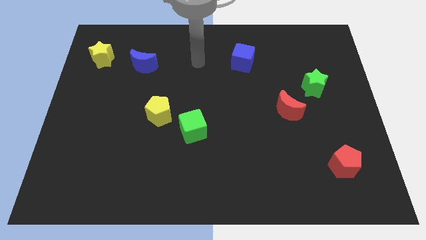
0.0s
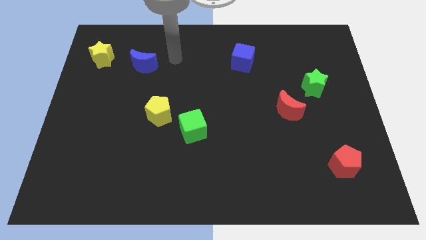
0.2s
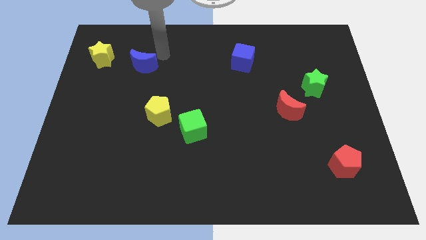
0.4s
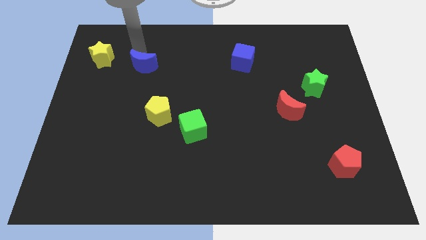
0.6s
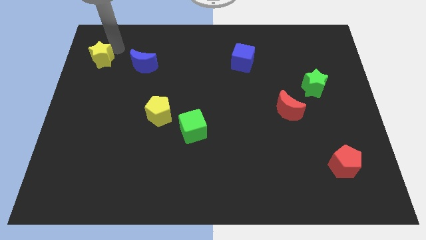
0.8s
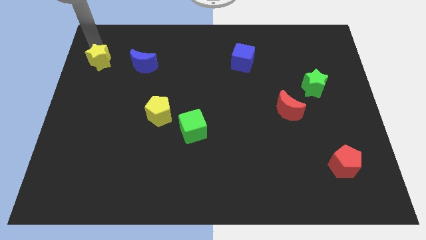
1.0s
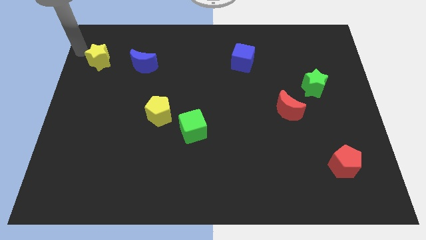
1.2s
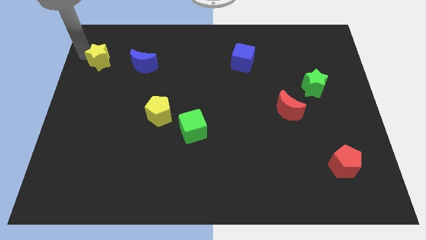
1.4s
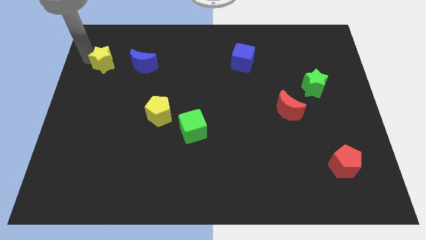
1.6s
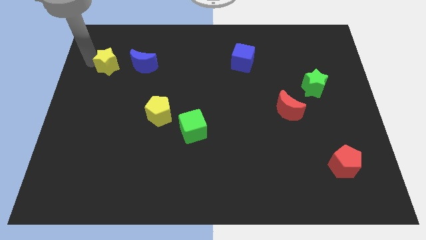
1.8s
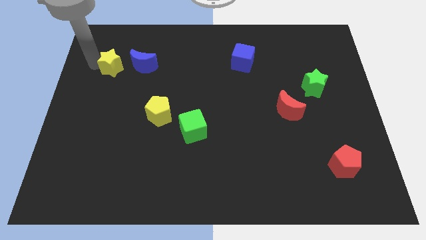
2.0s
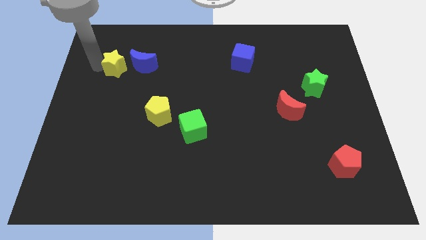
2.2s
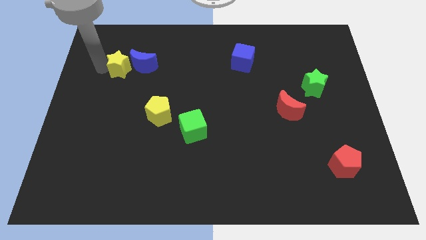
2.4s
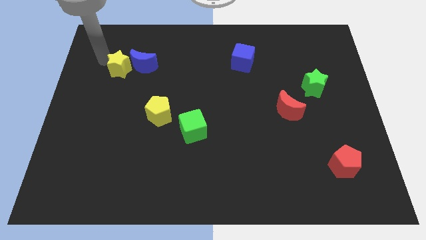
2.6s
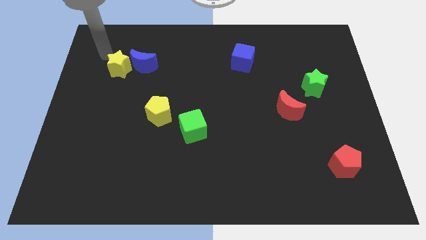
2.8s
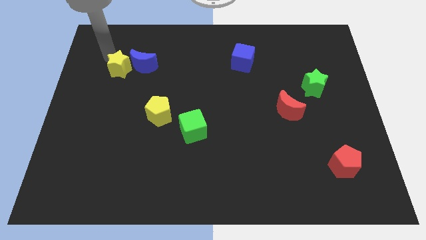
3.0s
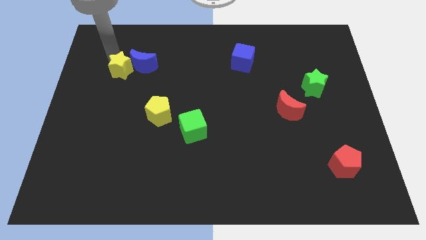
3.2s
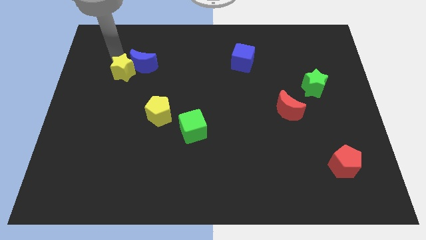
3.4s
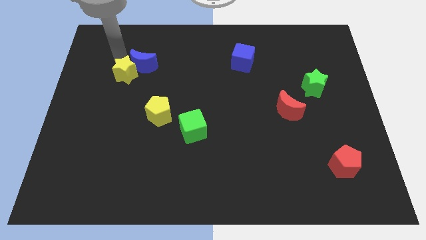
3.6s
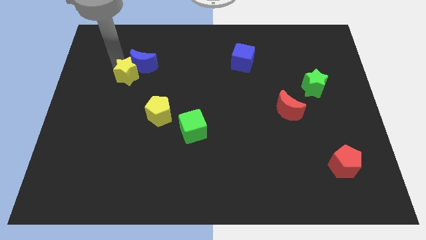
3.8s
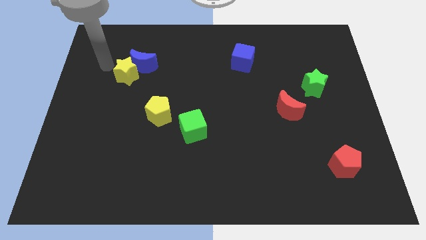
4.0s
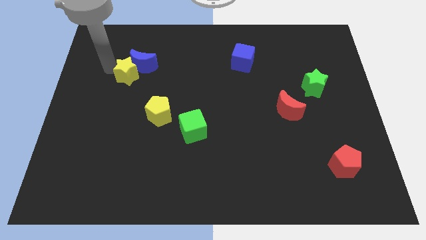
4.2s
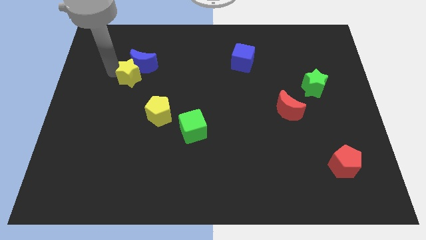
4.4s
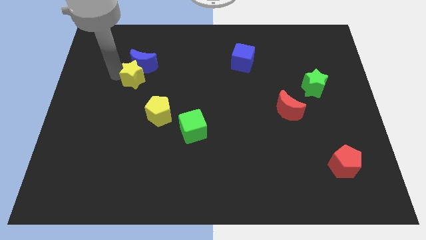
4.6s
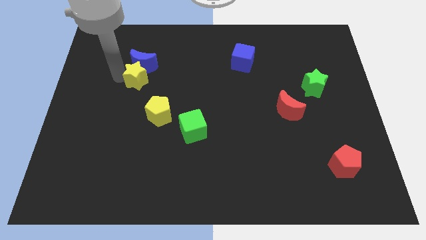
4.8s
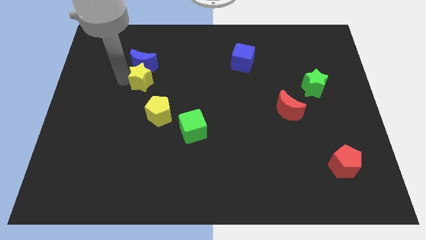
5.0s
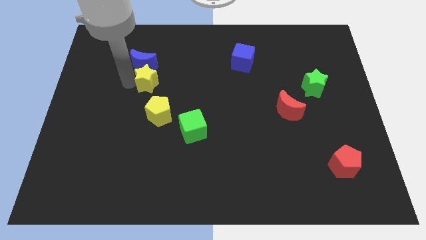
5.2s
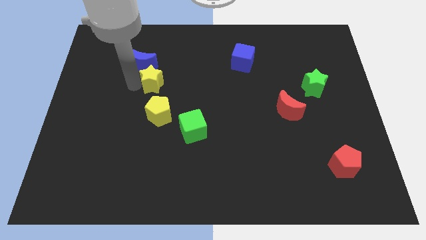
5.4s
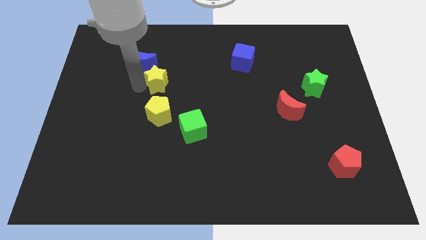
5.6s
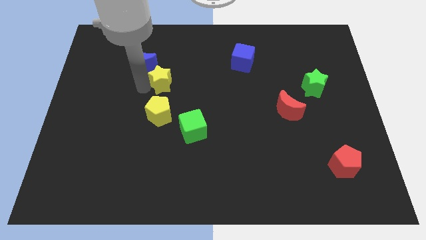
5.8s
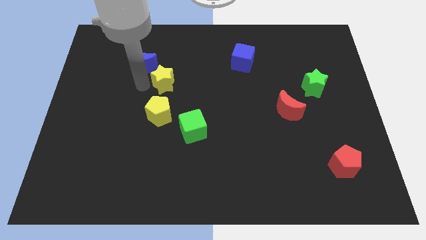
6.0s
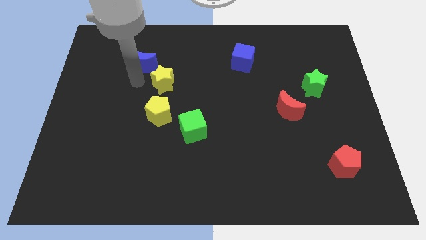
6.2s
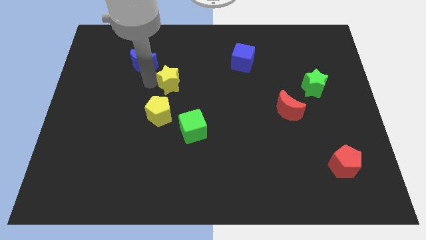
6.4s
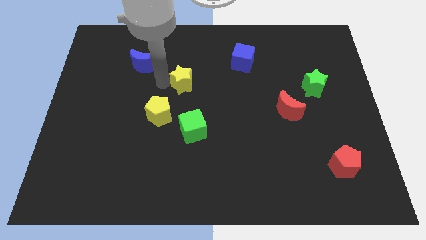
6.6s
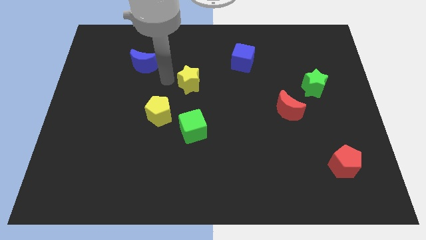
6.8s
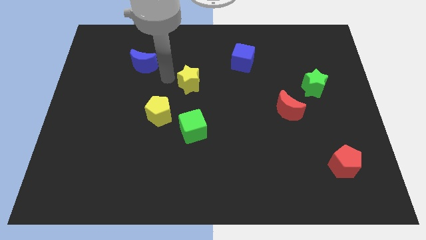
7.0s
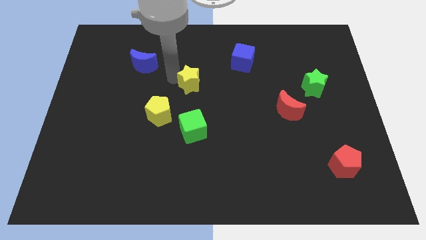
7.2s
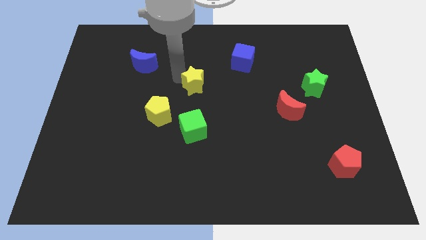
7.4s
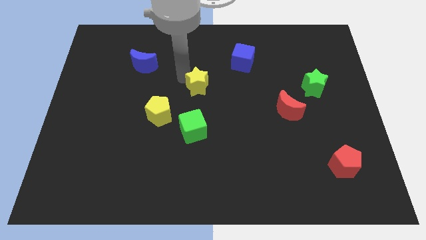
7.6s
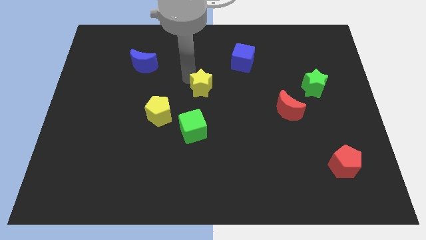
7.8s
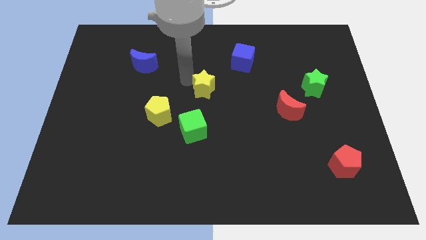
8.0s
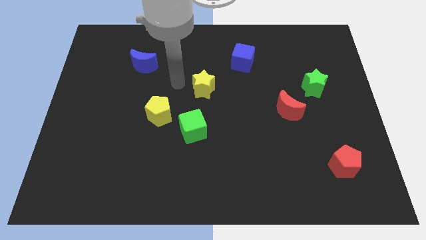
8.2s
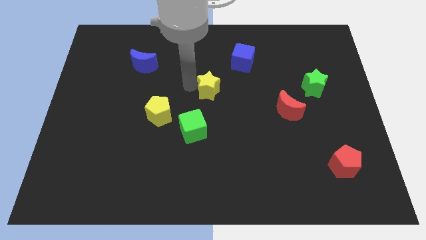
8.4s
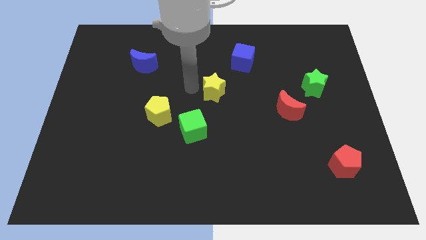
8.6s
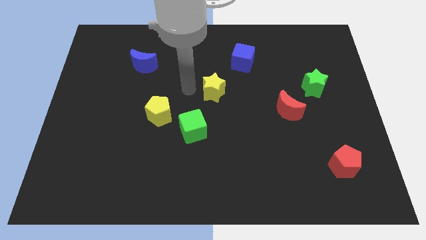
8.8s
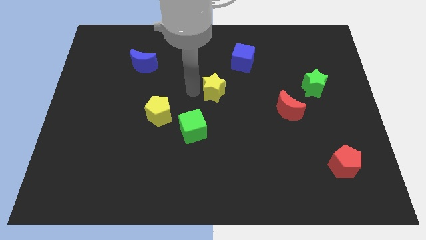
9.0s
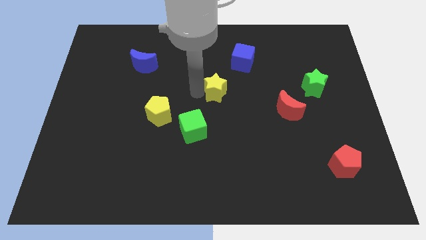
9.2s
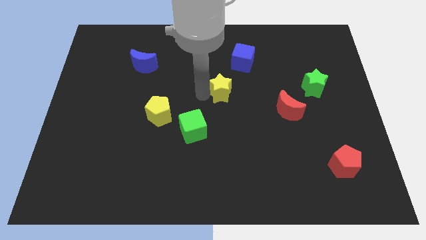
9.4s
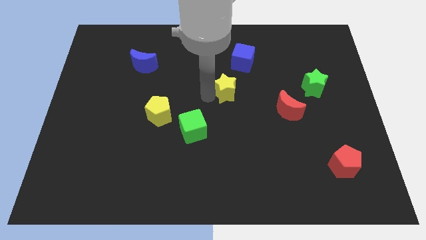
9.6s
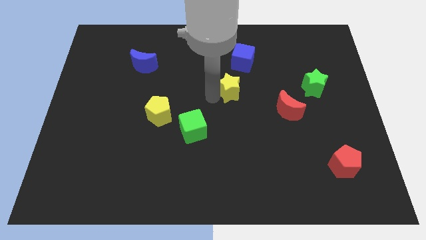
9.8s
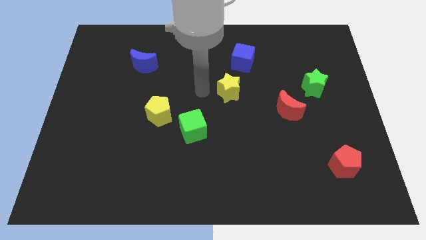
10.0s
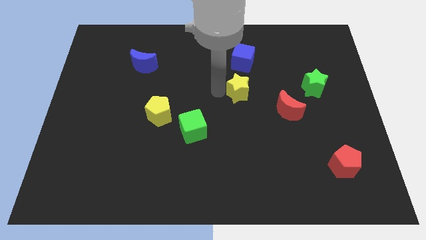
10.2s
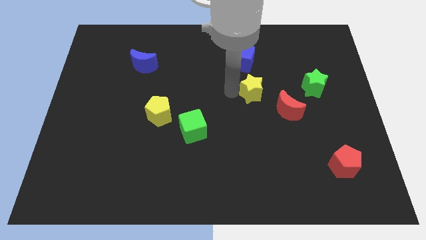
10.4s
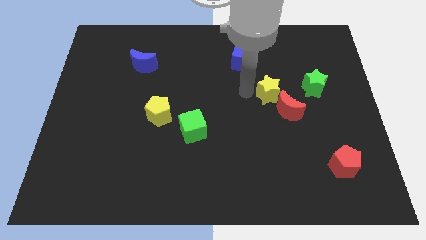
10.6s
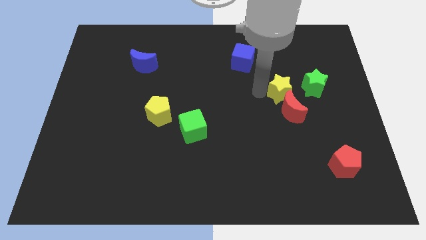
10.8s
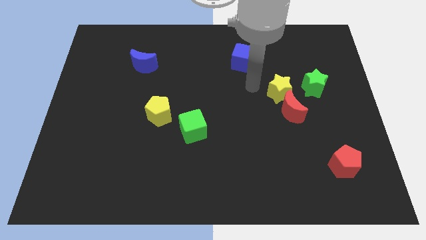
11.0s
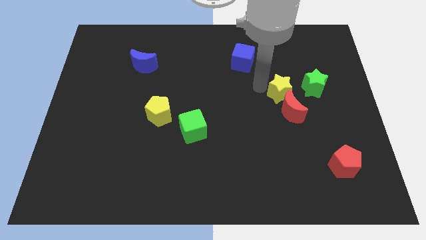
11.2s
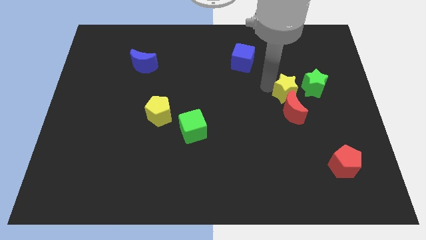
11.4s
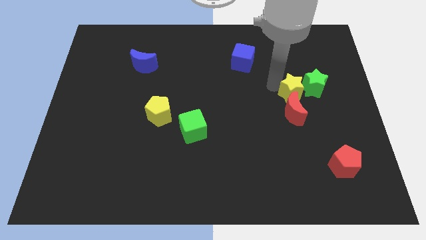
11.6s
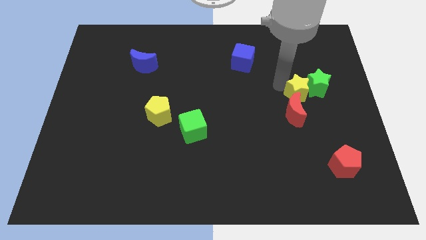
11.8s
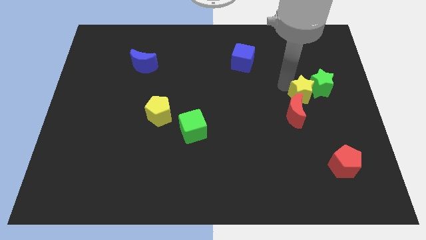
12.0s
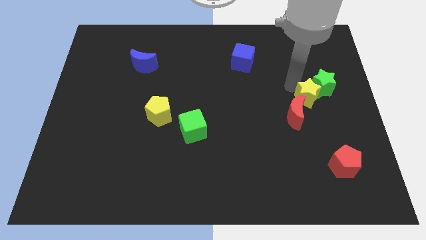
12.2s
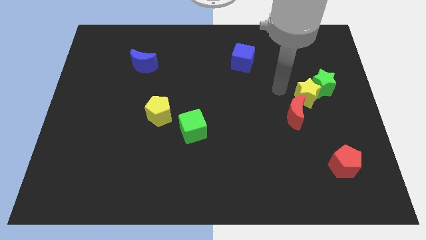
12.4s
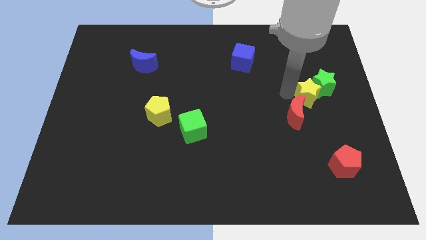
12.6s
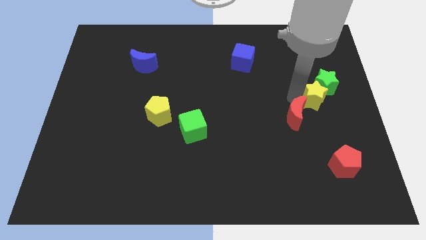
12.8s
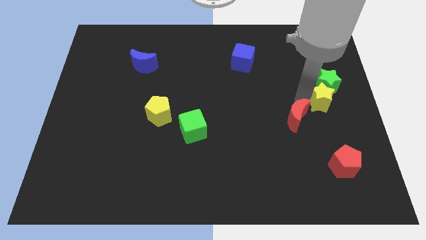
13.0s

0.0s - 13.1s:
put the yellow star to the right side of the board
